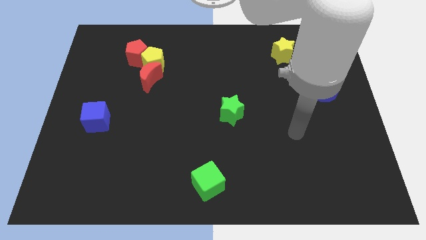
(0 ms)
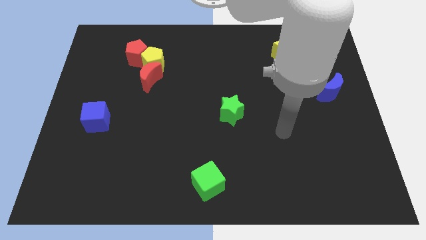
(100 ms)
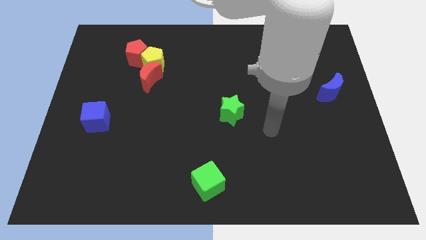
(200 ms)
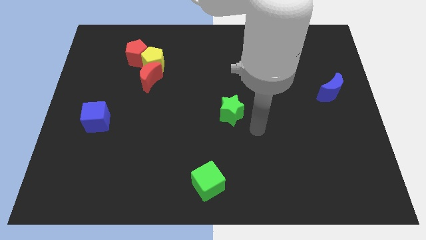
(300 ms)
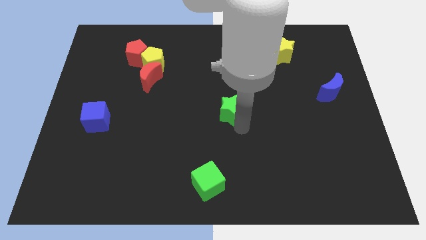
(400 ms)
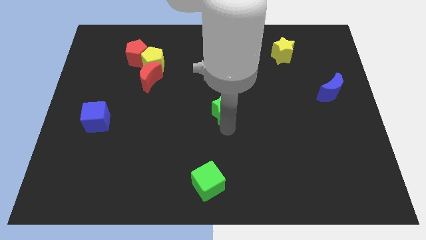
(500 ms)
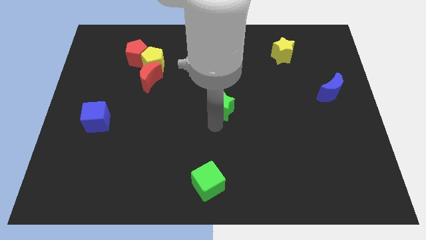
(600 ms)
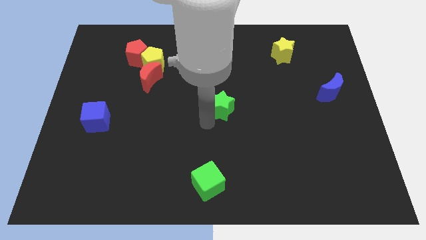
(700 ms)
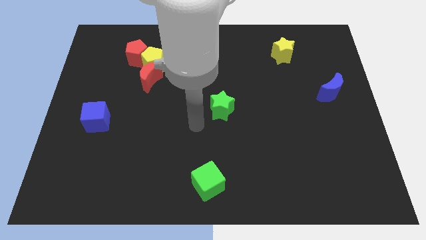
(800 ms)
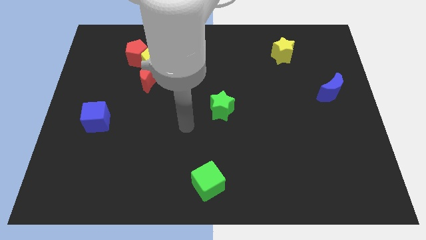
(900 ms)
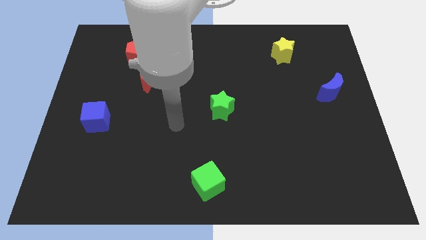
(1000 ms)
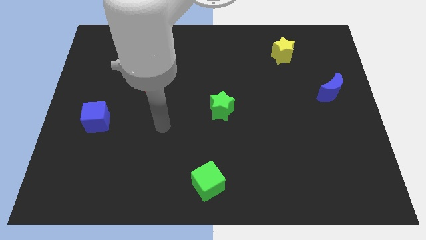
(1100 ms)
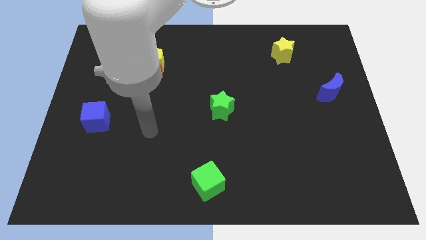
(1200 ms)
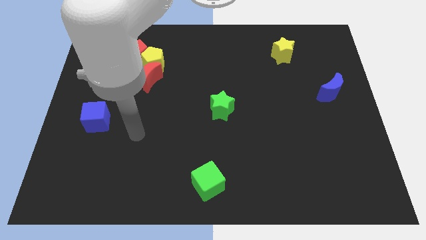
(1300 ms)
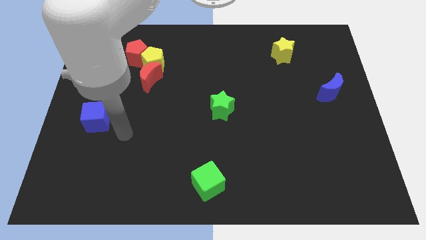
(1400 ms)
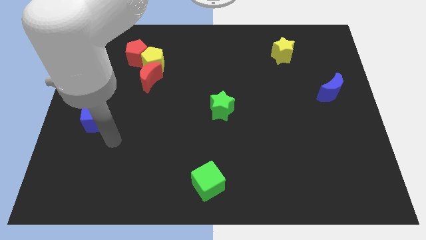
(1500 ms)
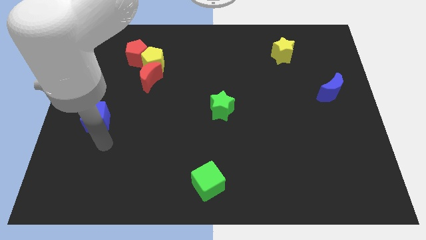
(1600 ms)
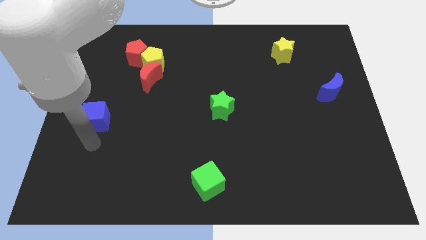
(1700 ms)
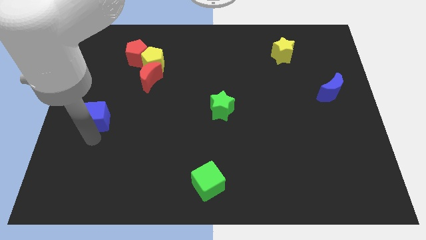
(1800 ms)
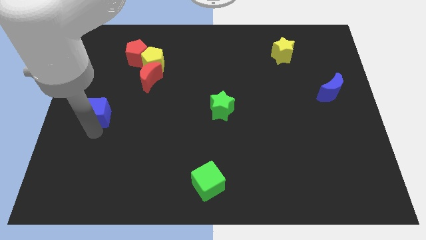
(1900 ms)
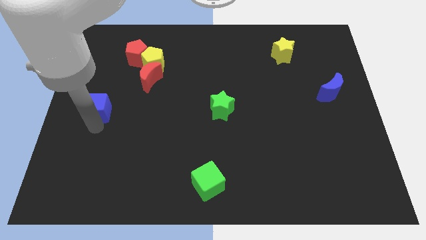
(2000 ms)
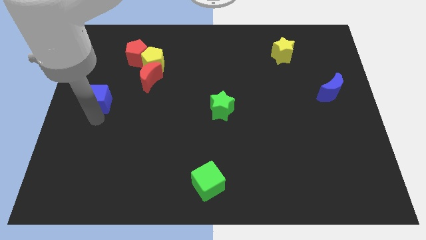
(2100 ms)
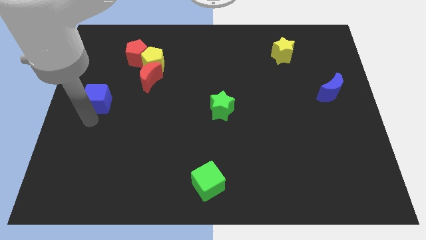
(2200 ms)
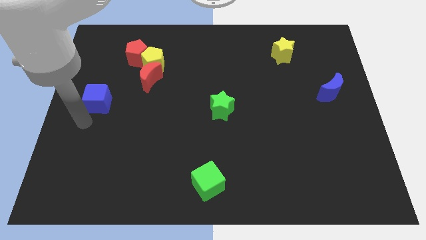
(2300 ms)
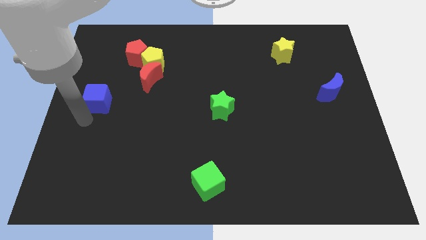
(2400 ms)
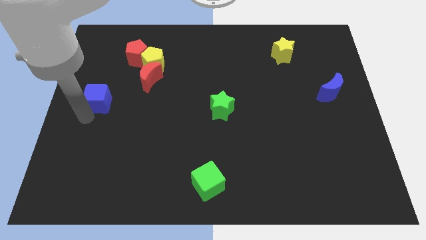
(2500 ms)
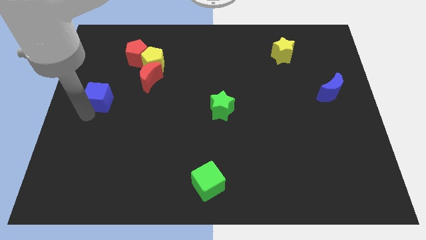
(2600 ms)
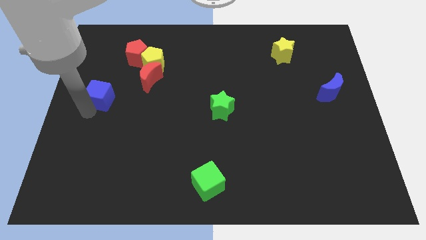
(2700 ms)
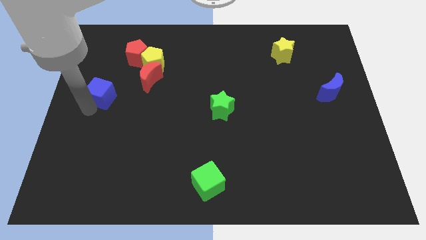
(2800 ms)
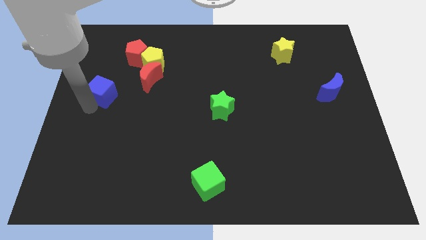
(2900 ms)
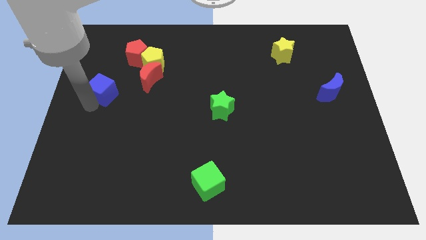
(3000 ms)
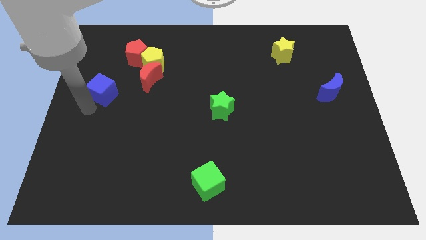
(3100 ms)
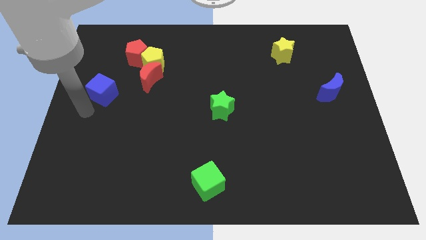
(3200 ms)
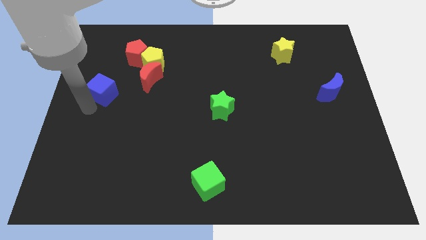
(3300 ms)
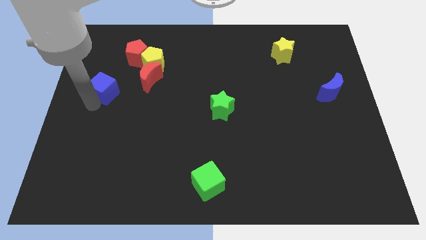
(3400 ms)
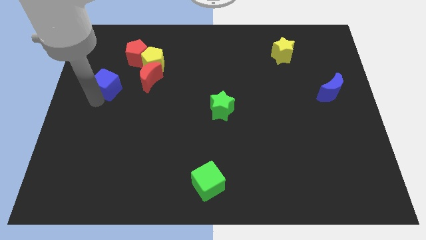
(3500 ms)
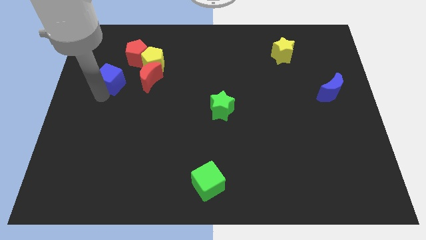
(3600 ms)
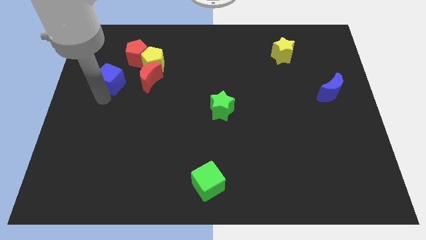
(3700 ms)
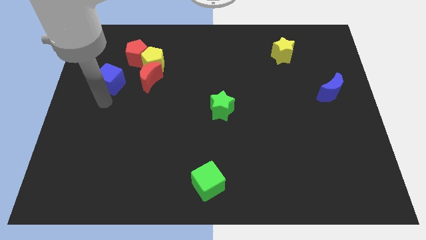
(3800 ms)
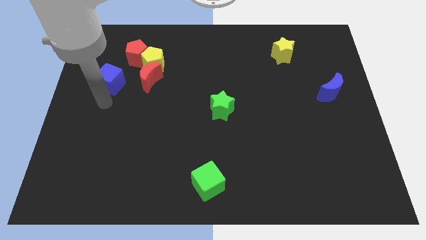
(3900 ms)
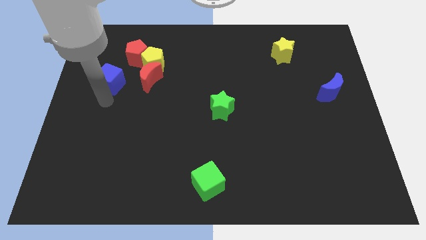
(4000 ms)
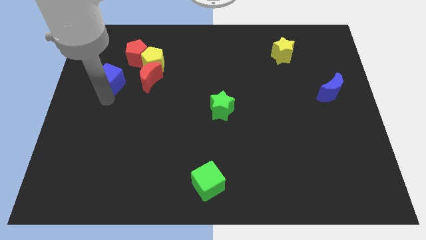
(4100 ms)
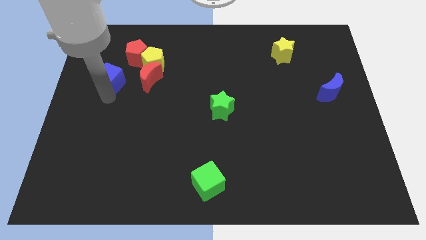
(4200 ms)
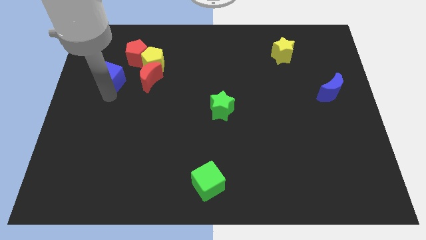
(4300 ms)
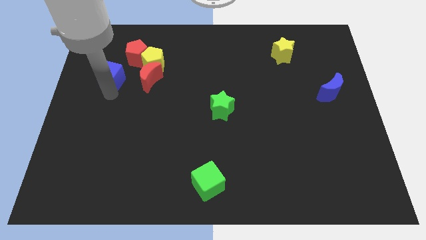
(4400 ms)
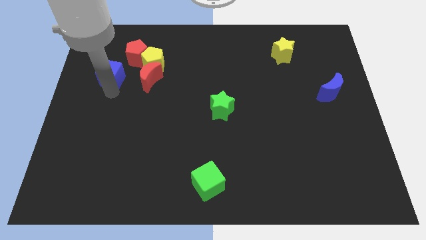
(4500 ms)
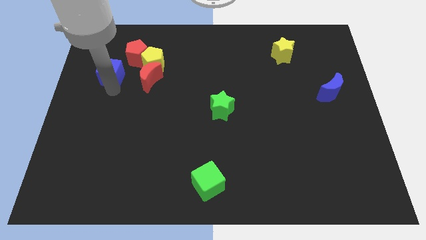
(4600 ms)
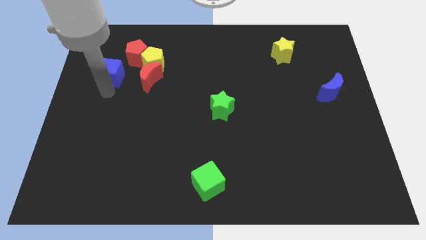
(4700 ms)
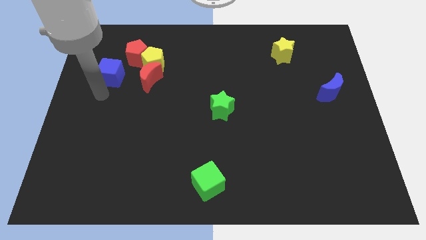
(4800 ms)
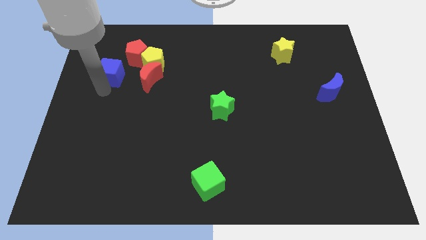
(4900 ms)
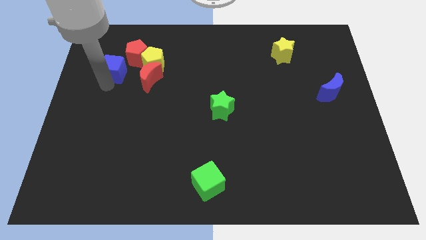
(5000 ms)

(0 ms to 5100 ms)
slide the blue cube diagonally up and to the left of the red moon

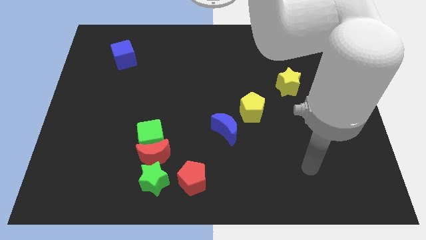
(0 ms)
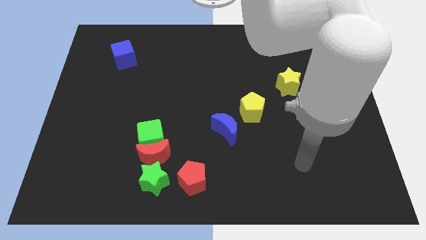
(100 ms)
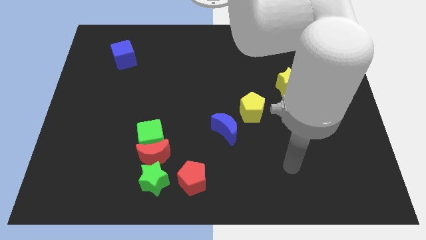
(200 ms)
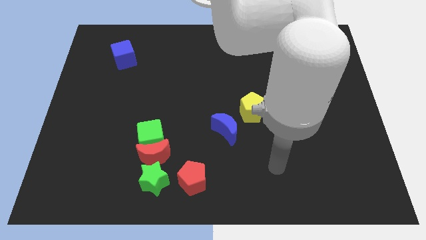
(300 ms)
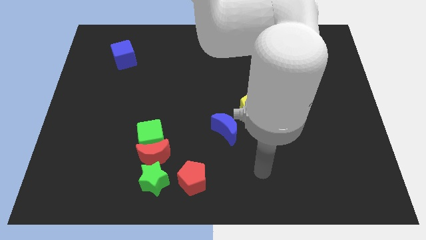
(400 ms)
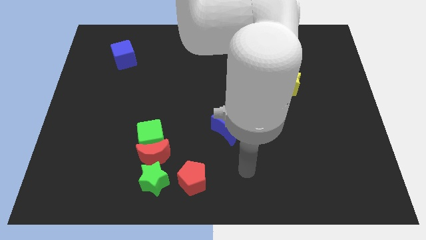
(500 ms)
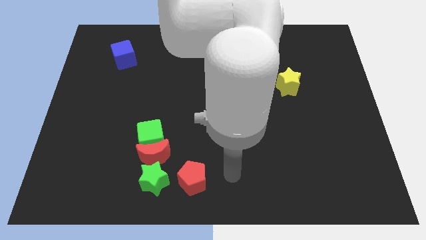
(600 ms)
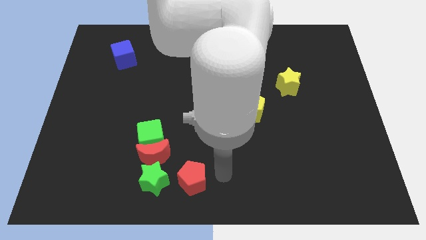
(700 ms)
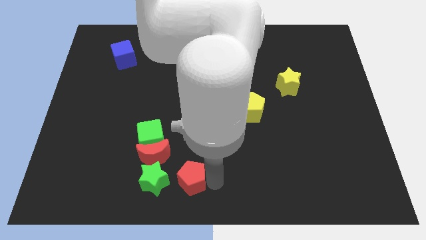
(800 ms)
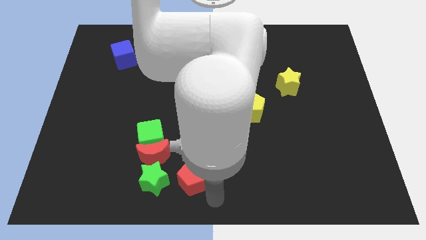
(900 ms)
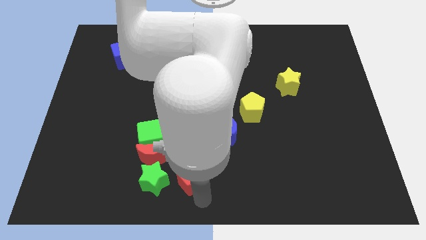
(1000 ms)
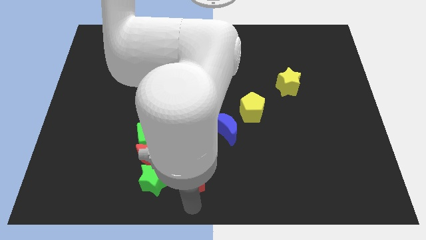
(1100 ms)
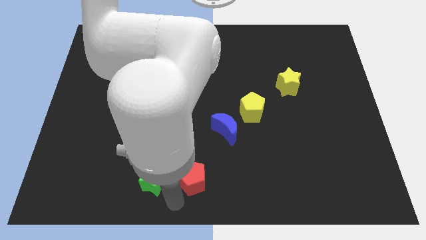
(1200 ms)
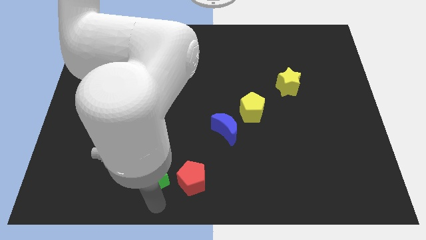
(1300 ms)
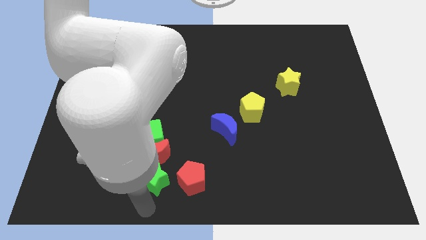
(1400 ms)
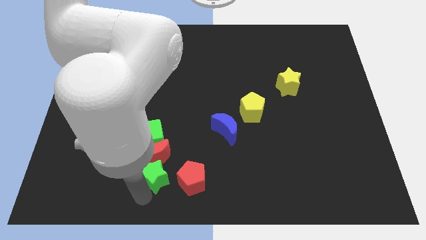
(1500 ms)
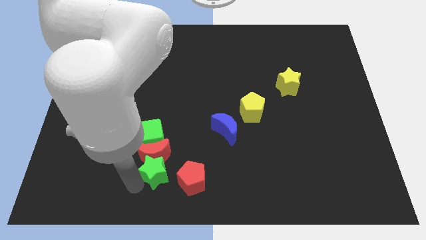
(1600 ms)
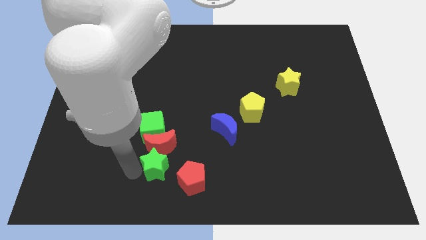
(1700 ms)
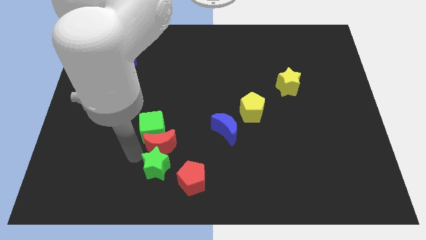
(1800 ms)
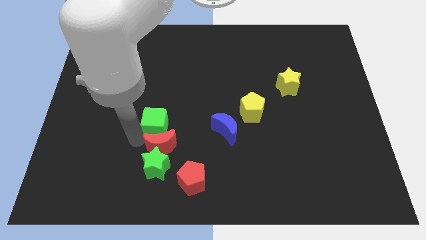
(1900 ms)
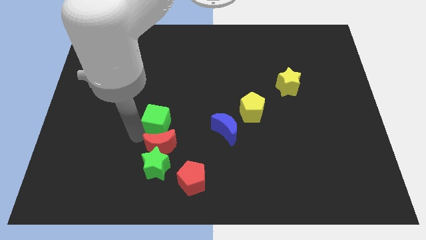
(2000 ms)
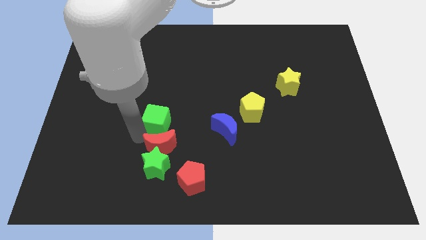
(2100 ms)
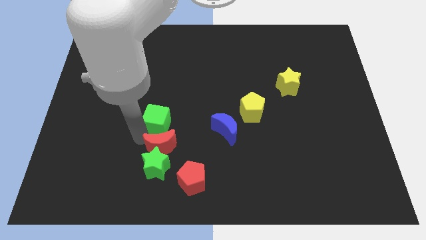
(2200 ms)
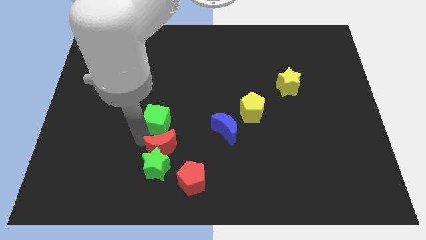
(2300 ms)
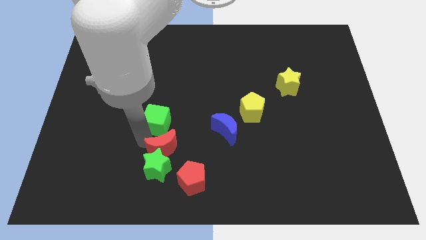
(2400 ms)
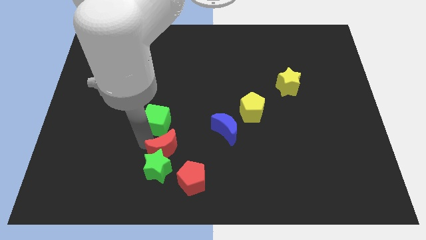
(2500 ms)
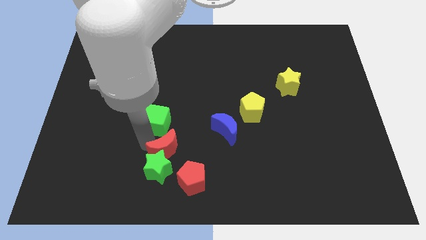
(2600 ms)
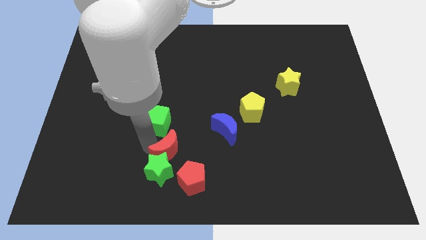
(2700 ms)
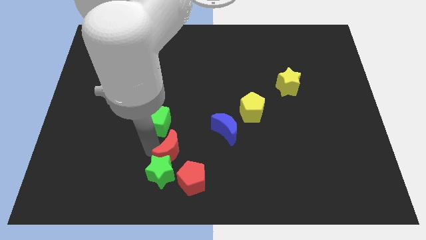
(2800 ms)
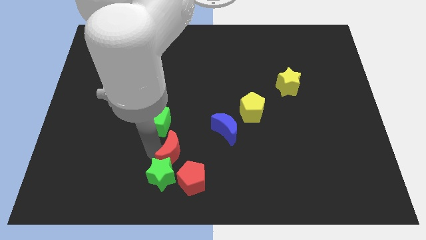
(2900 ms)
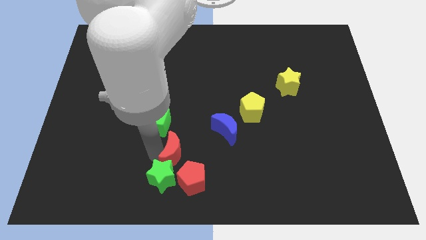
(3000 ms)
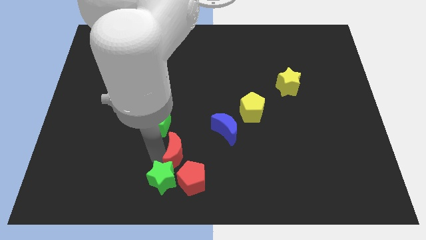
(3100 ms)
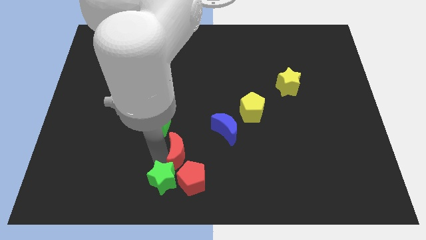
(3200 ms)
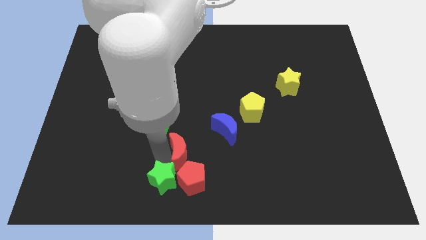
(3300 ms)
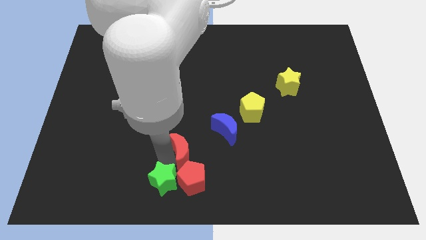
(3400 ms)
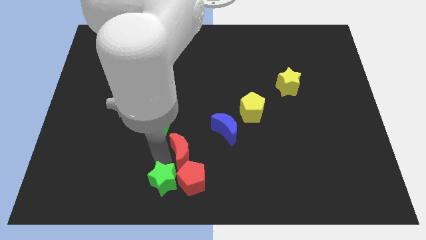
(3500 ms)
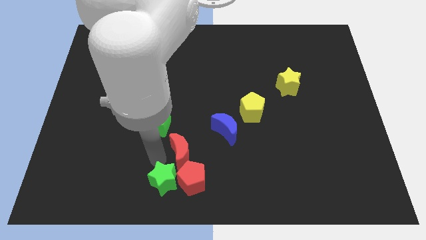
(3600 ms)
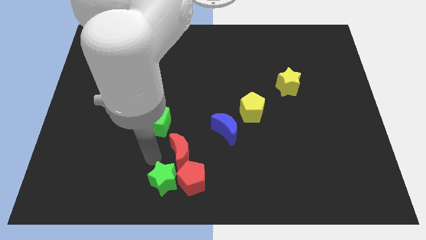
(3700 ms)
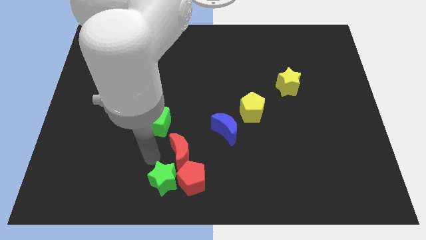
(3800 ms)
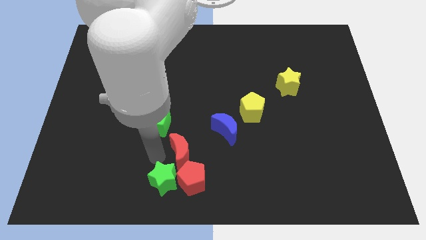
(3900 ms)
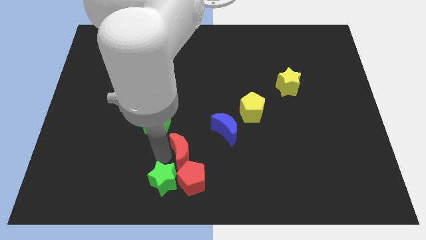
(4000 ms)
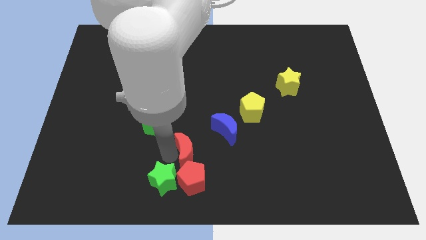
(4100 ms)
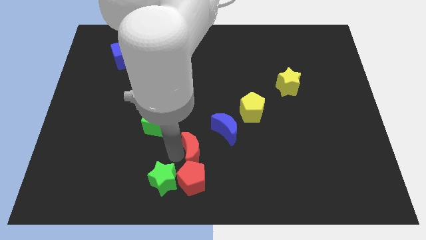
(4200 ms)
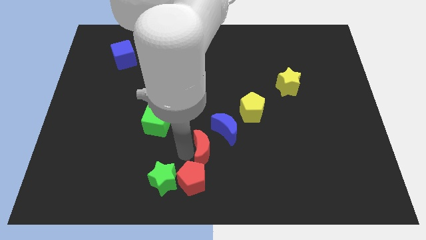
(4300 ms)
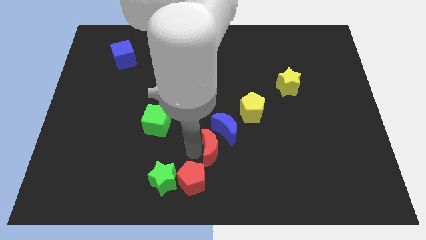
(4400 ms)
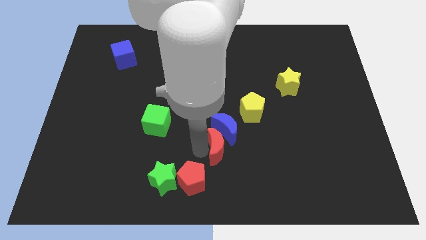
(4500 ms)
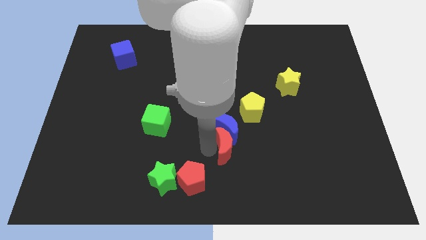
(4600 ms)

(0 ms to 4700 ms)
slide the red moon to the bottom right of the blue moon
